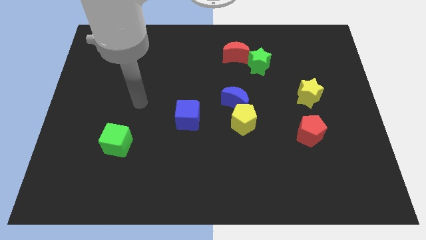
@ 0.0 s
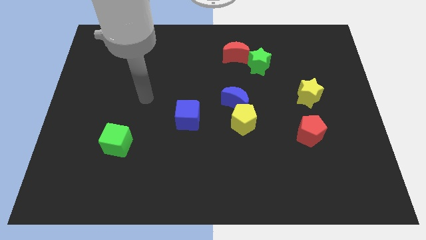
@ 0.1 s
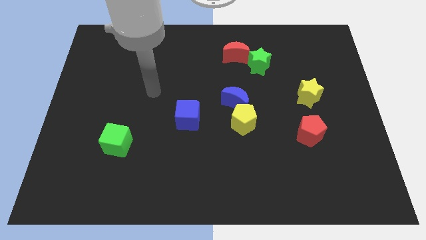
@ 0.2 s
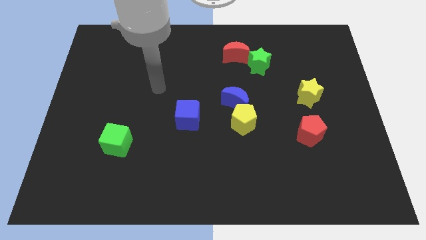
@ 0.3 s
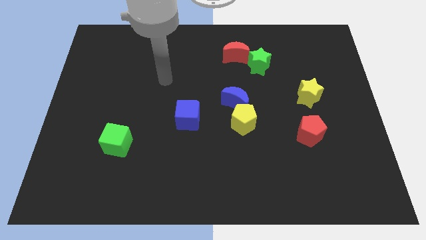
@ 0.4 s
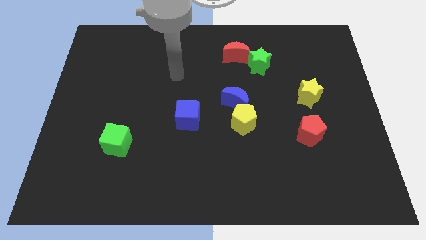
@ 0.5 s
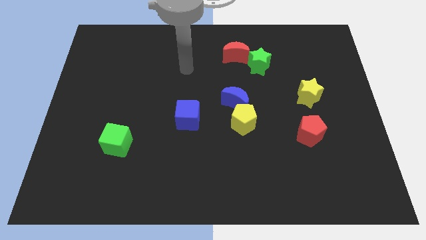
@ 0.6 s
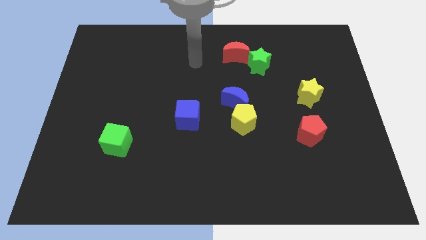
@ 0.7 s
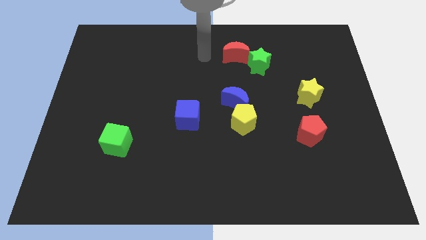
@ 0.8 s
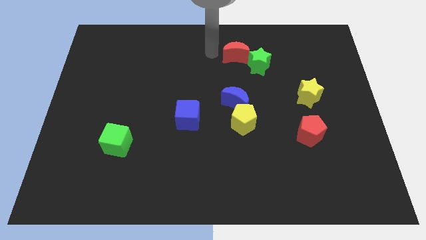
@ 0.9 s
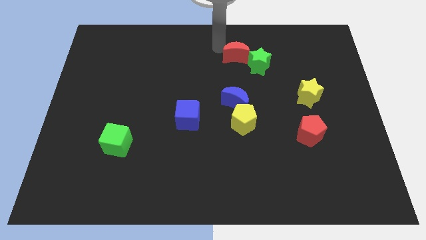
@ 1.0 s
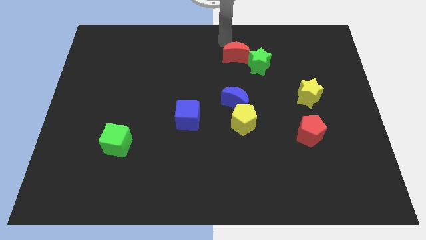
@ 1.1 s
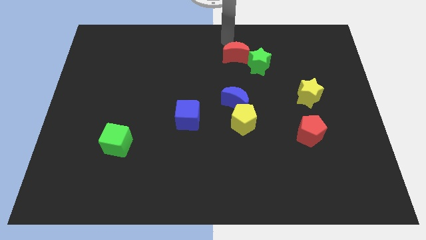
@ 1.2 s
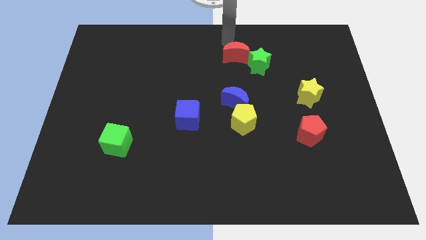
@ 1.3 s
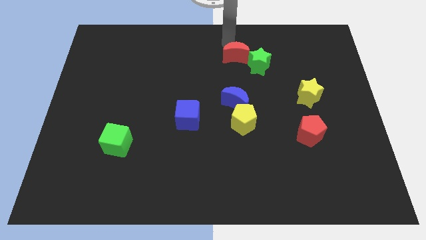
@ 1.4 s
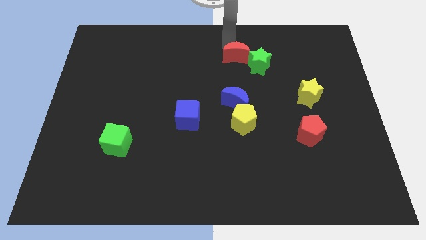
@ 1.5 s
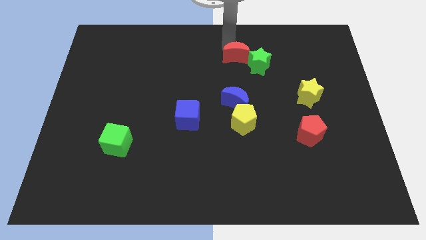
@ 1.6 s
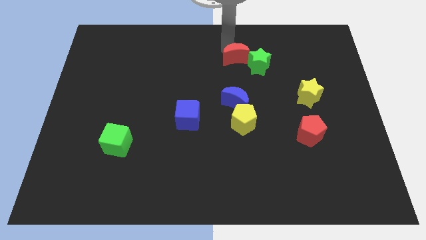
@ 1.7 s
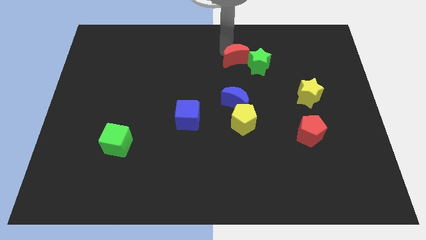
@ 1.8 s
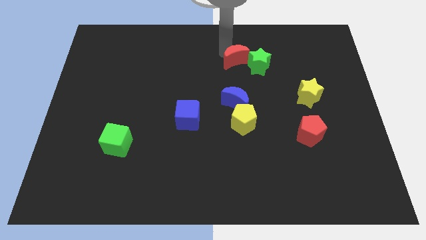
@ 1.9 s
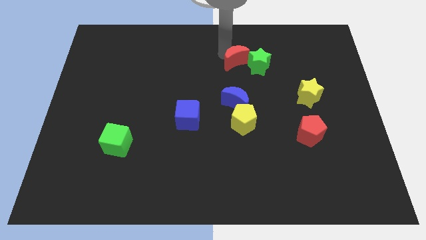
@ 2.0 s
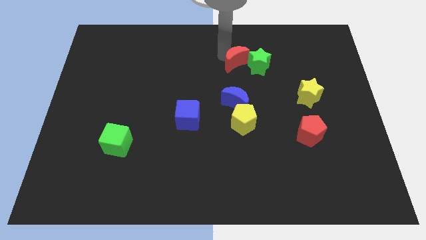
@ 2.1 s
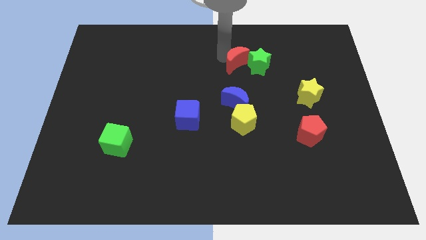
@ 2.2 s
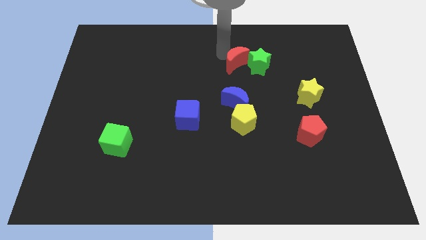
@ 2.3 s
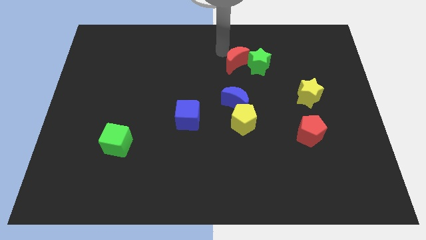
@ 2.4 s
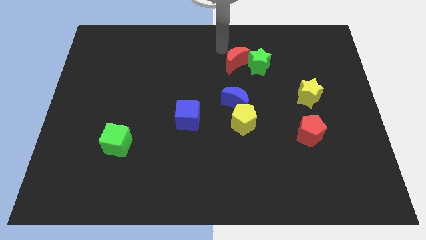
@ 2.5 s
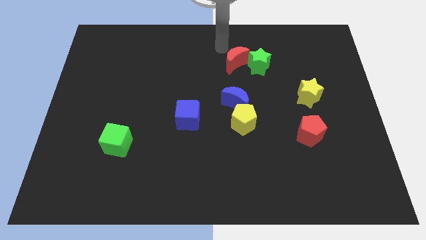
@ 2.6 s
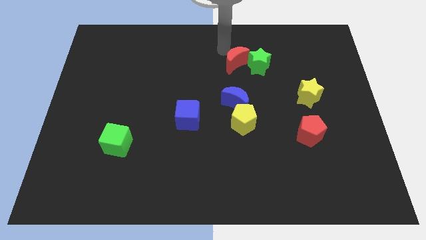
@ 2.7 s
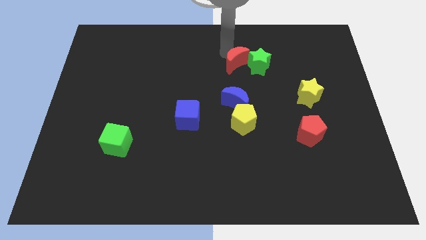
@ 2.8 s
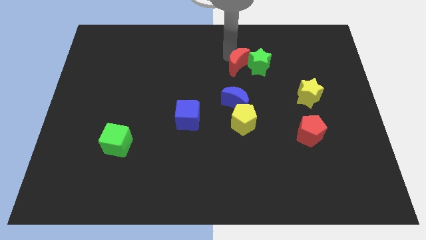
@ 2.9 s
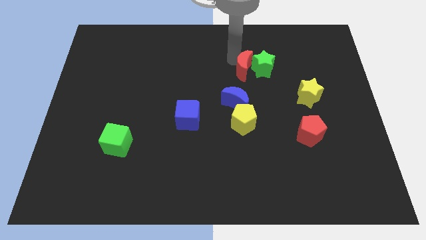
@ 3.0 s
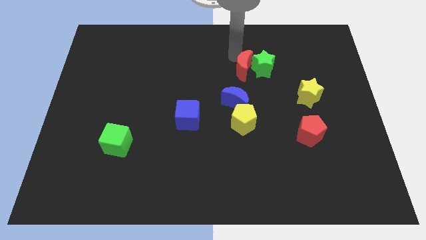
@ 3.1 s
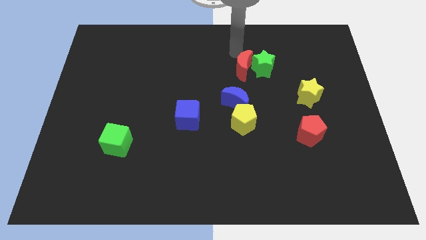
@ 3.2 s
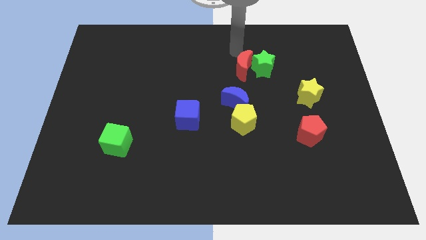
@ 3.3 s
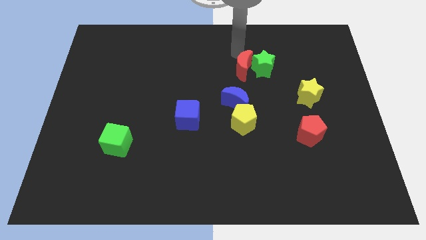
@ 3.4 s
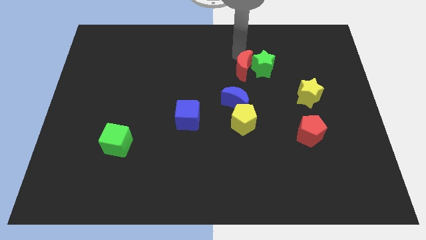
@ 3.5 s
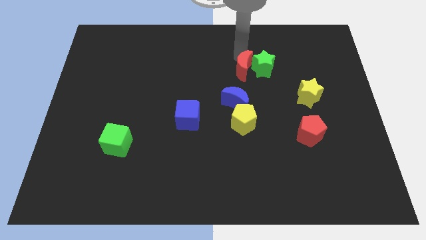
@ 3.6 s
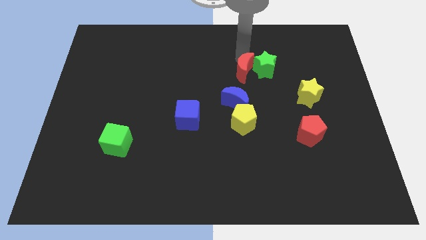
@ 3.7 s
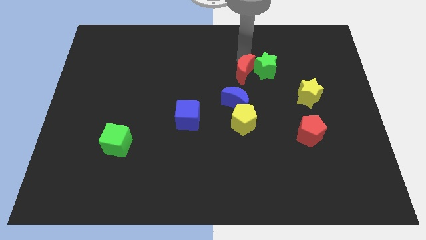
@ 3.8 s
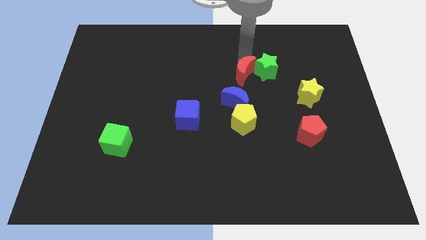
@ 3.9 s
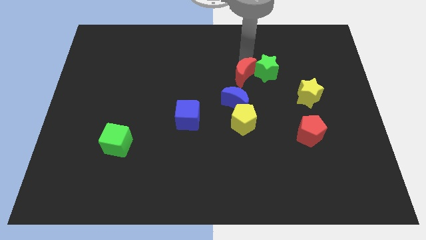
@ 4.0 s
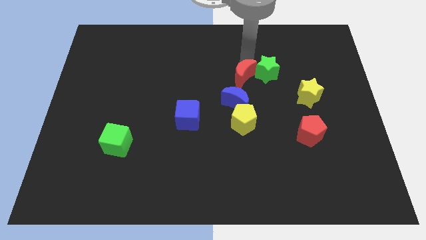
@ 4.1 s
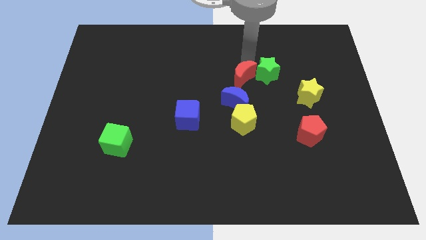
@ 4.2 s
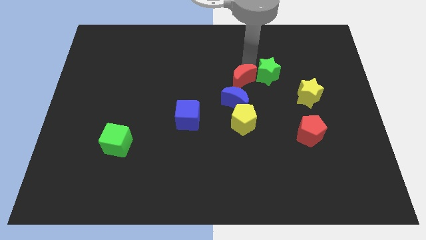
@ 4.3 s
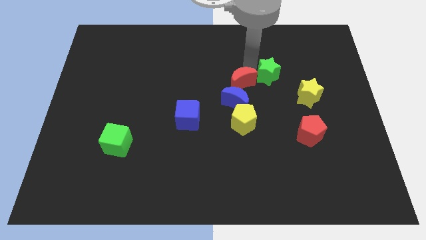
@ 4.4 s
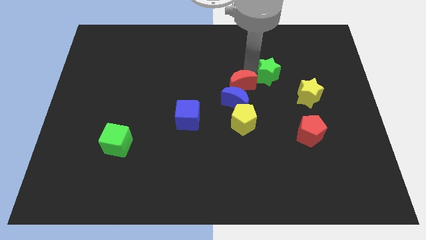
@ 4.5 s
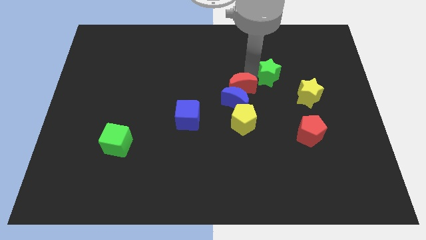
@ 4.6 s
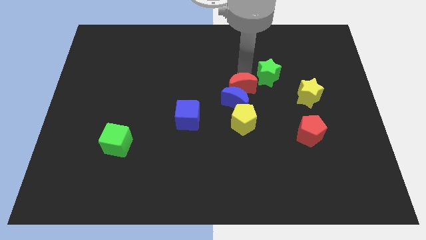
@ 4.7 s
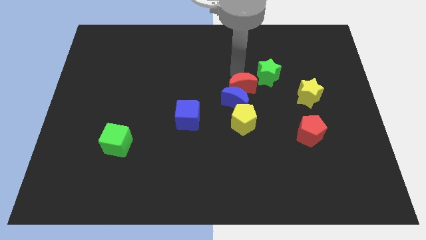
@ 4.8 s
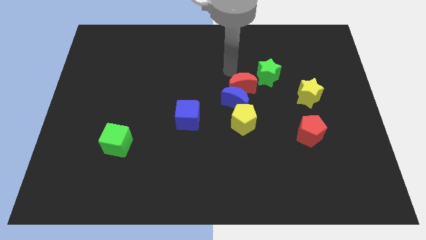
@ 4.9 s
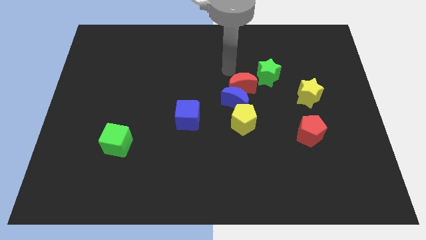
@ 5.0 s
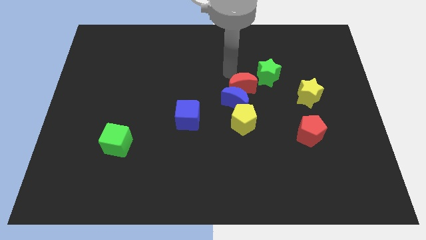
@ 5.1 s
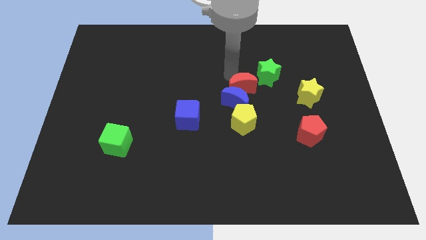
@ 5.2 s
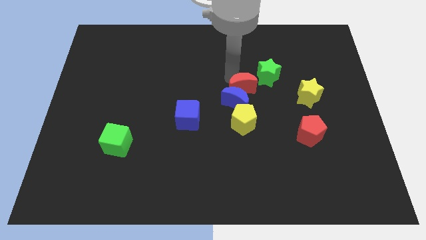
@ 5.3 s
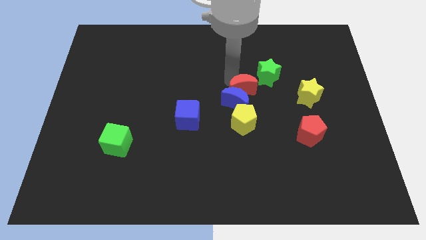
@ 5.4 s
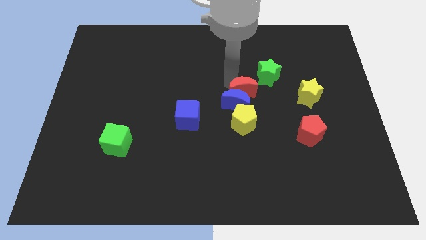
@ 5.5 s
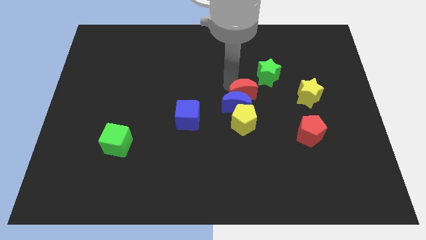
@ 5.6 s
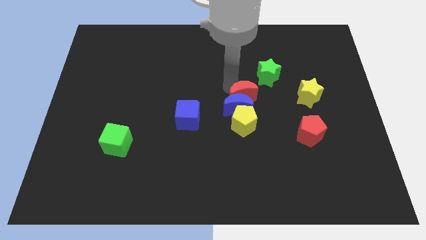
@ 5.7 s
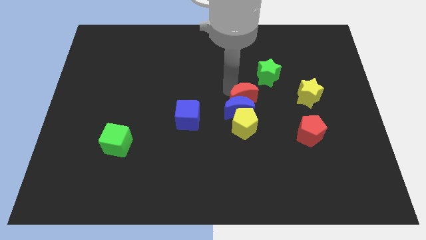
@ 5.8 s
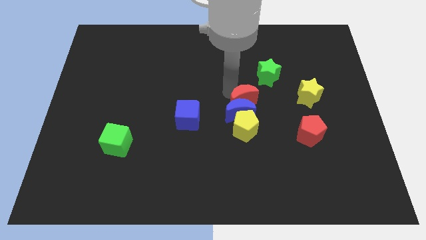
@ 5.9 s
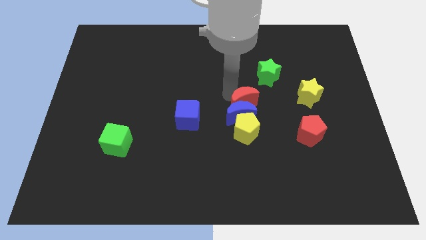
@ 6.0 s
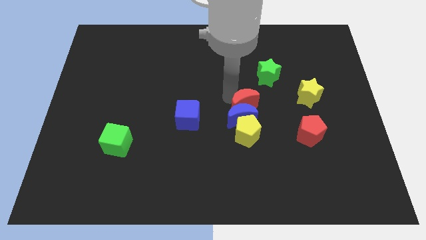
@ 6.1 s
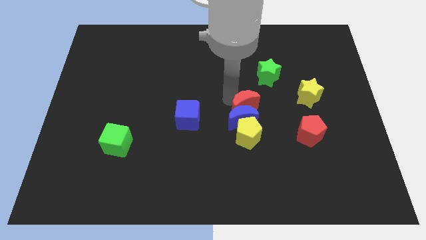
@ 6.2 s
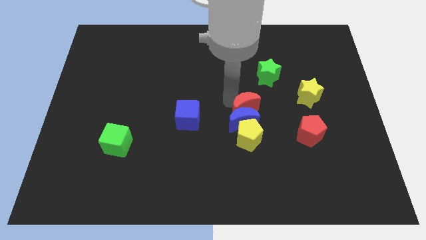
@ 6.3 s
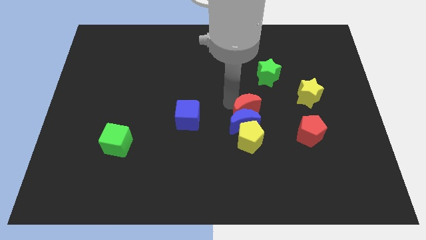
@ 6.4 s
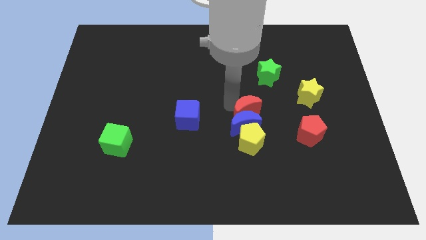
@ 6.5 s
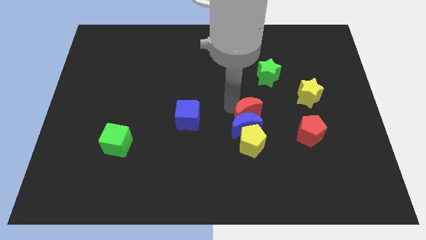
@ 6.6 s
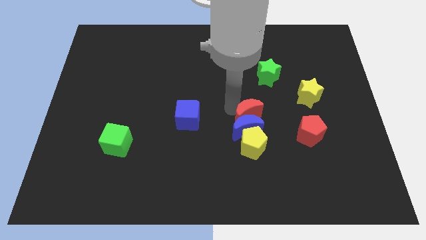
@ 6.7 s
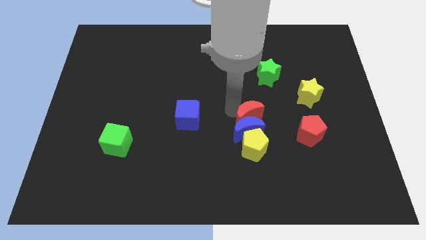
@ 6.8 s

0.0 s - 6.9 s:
move the red moon down

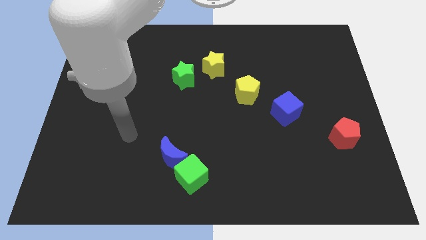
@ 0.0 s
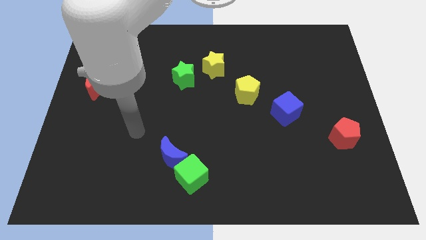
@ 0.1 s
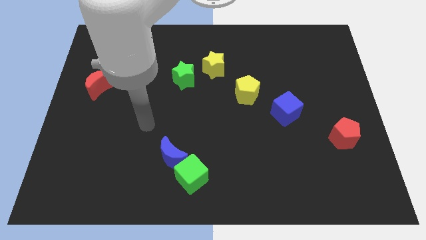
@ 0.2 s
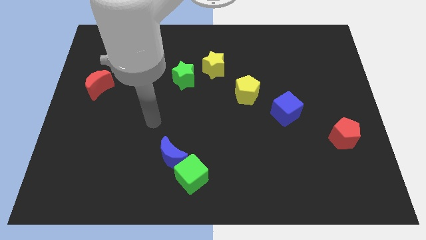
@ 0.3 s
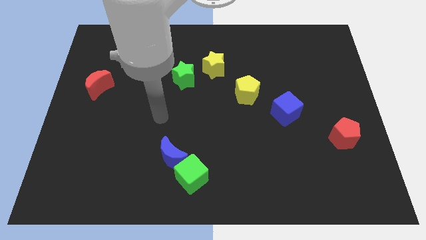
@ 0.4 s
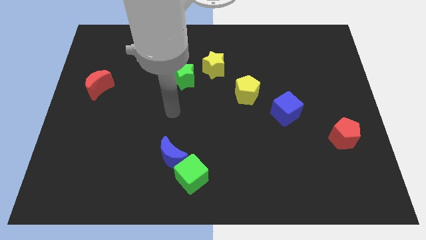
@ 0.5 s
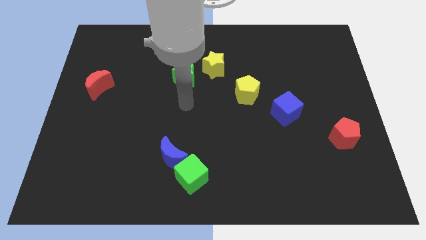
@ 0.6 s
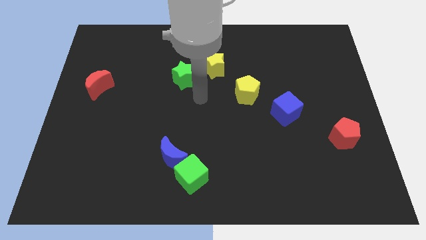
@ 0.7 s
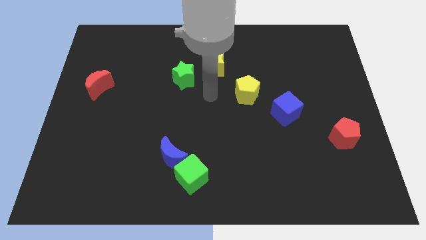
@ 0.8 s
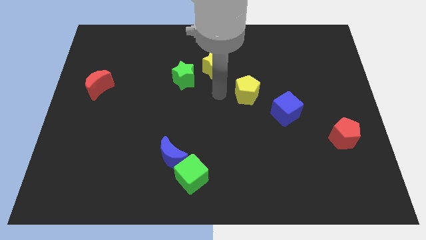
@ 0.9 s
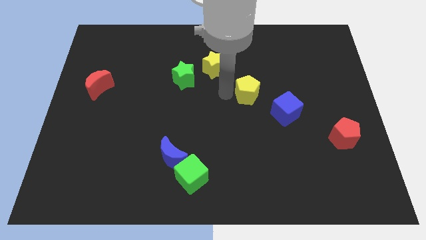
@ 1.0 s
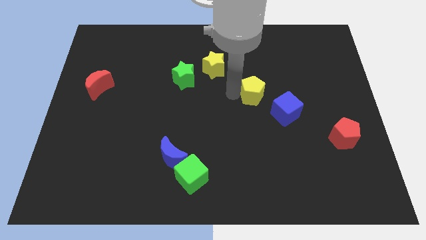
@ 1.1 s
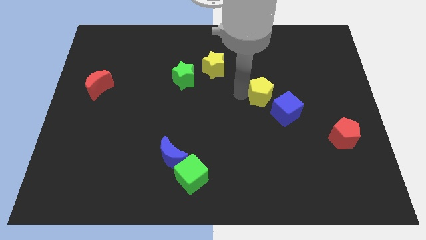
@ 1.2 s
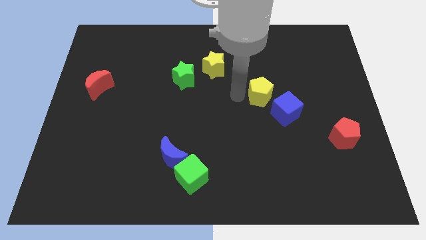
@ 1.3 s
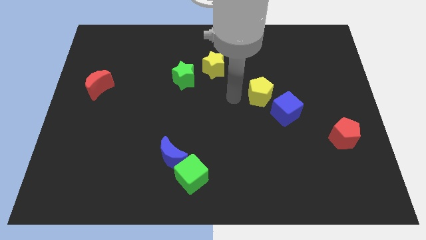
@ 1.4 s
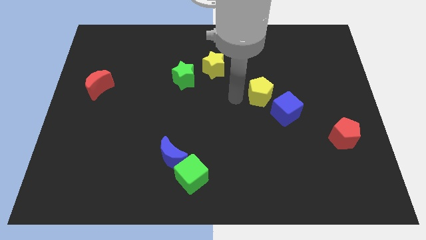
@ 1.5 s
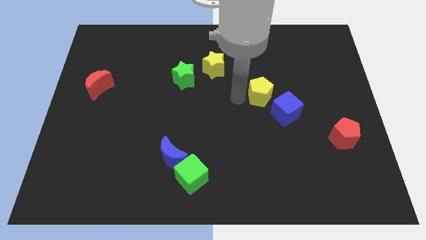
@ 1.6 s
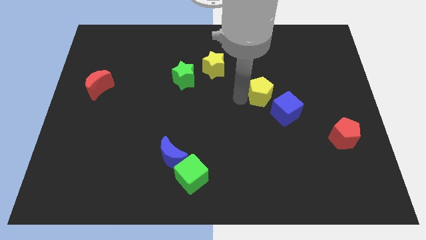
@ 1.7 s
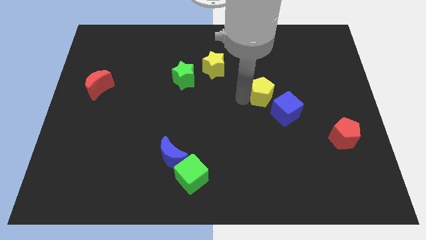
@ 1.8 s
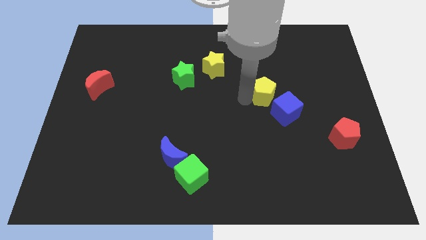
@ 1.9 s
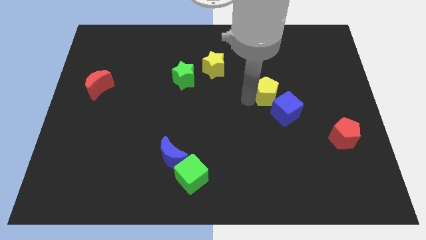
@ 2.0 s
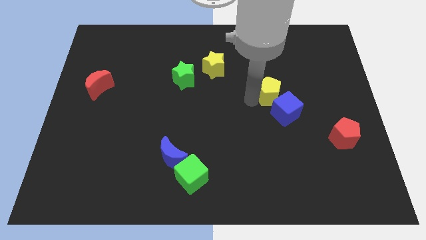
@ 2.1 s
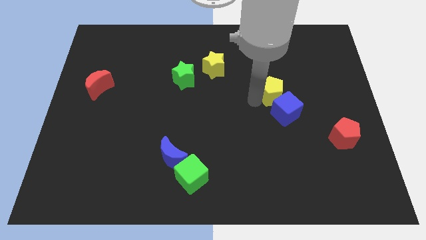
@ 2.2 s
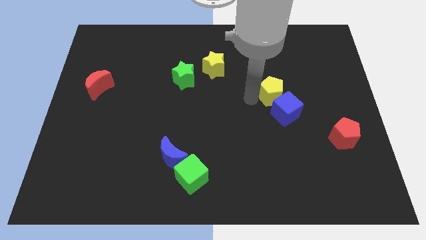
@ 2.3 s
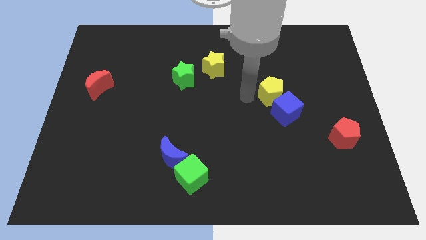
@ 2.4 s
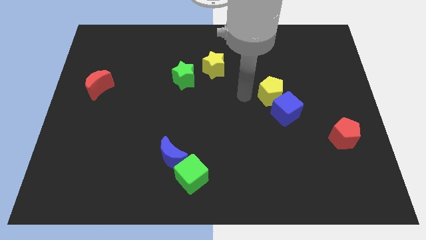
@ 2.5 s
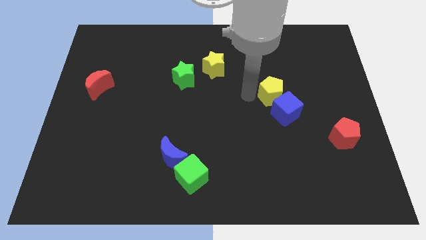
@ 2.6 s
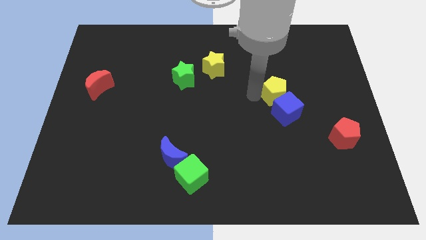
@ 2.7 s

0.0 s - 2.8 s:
slide the yellow pentagon to the right a little
